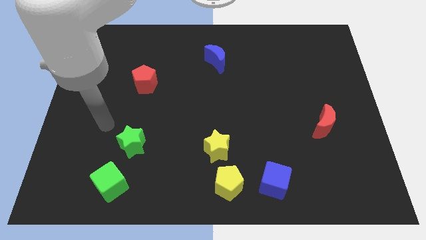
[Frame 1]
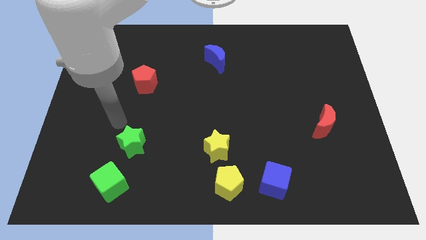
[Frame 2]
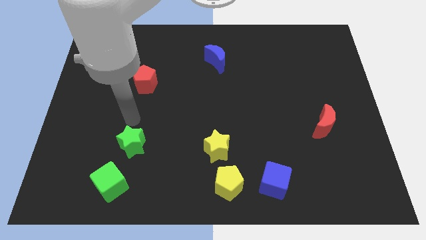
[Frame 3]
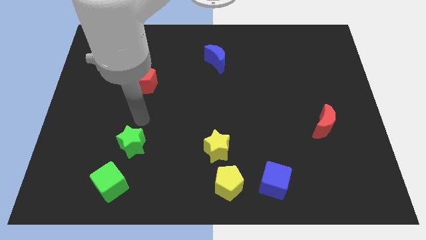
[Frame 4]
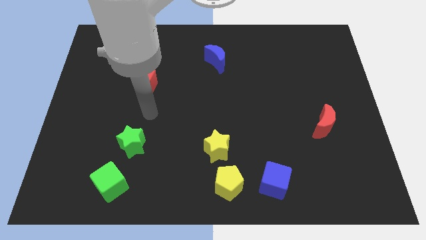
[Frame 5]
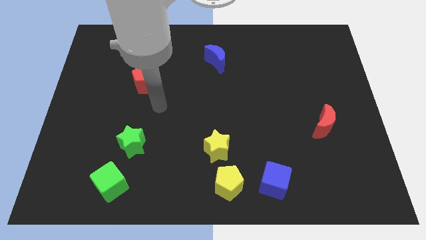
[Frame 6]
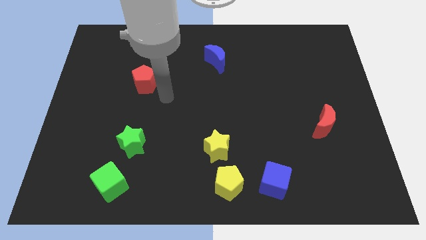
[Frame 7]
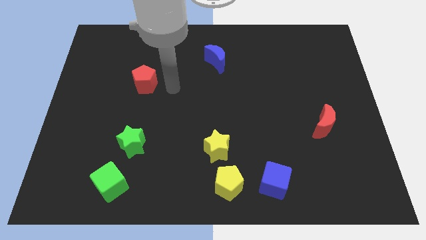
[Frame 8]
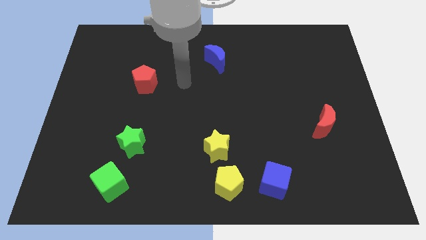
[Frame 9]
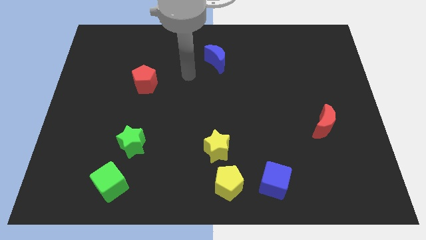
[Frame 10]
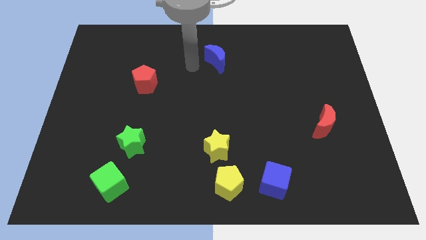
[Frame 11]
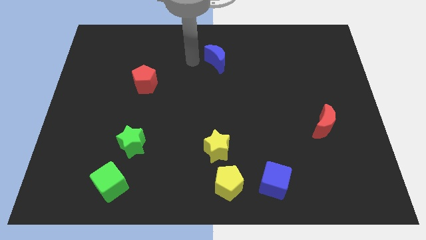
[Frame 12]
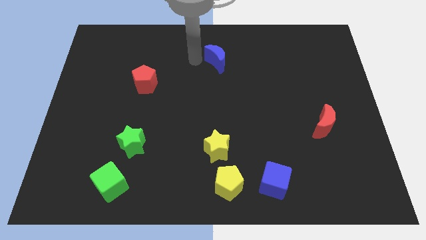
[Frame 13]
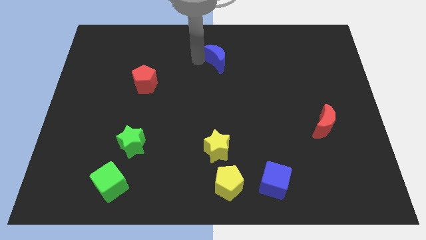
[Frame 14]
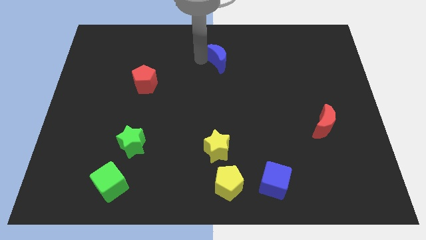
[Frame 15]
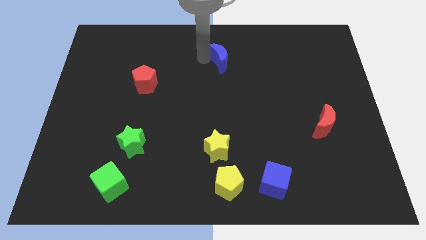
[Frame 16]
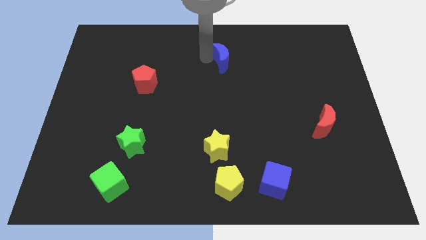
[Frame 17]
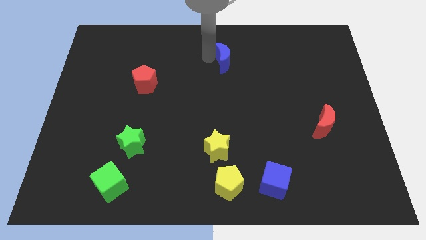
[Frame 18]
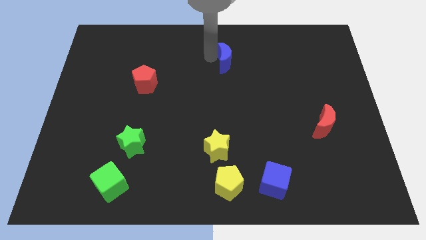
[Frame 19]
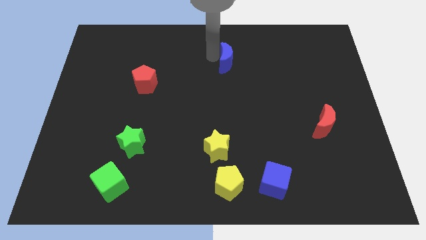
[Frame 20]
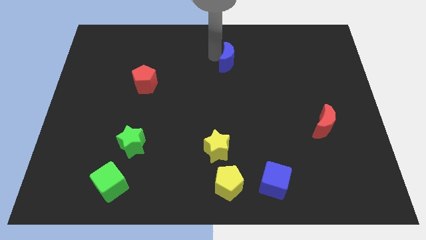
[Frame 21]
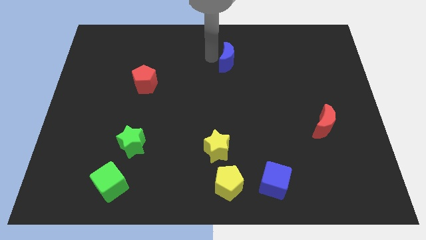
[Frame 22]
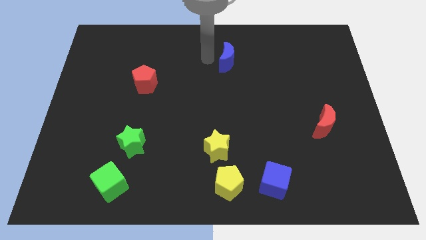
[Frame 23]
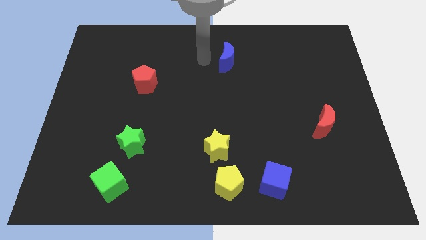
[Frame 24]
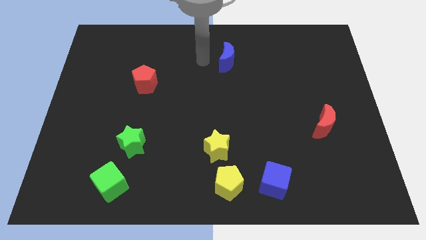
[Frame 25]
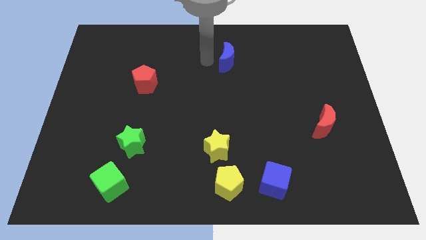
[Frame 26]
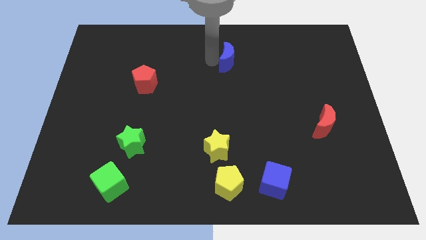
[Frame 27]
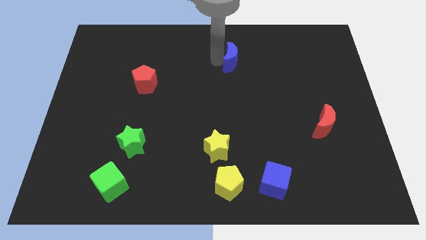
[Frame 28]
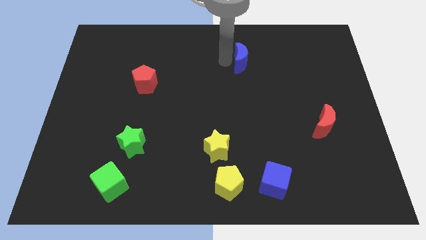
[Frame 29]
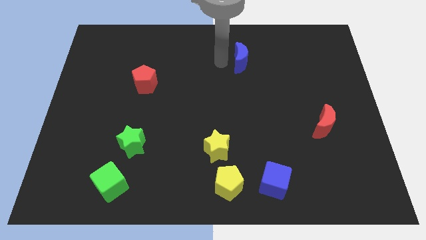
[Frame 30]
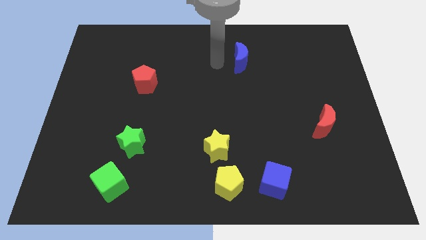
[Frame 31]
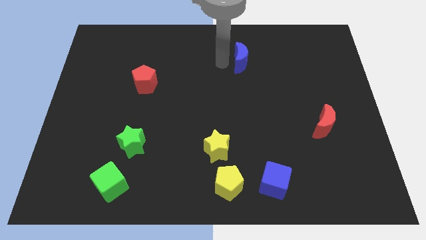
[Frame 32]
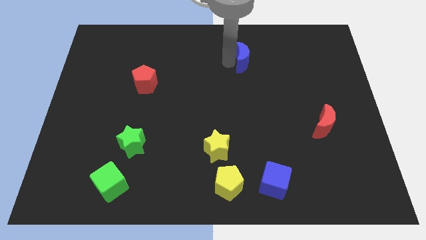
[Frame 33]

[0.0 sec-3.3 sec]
push the blue moon right somewhat

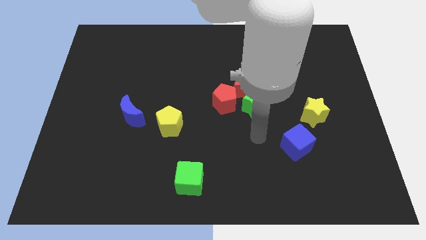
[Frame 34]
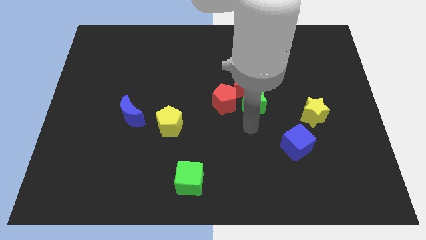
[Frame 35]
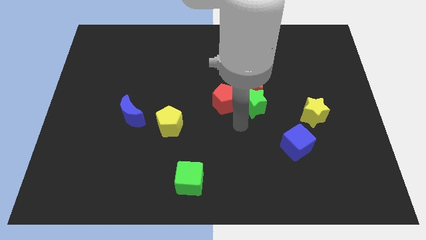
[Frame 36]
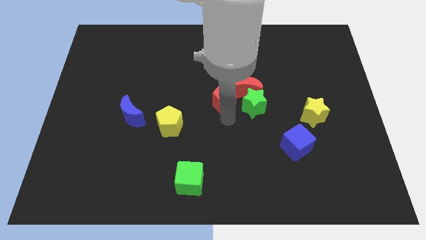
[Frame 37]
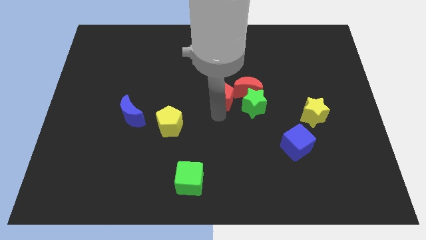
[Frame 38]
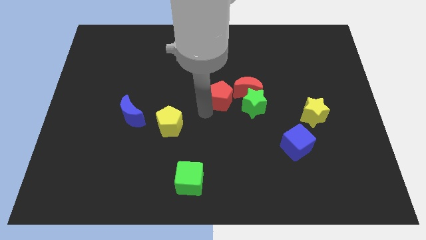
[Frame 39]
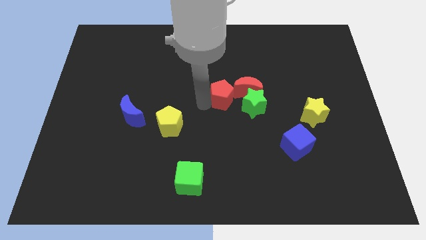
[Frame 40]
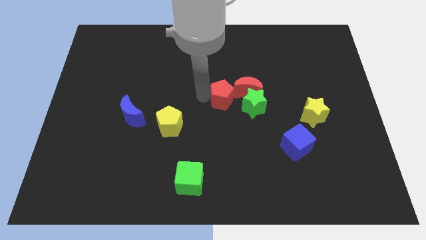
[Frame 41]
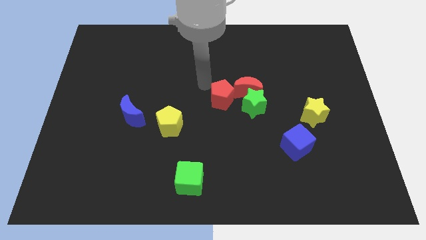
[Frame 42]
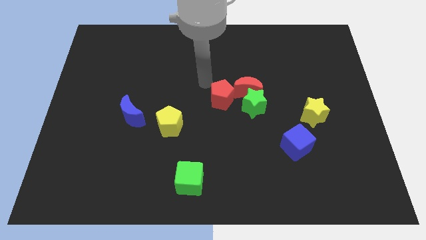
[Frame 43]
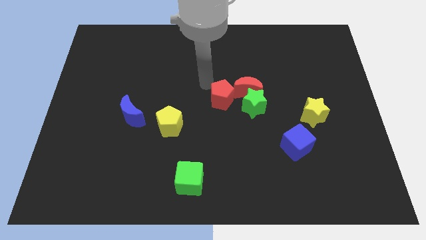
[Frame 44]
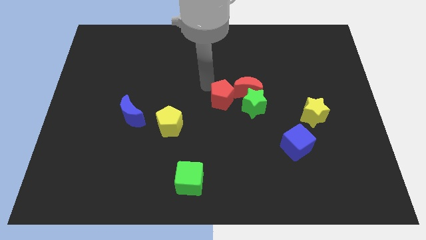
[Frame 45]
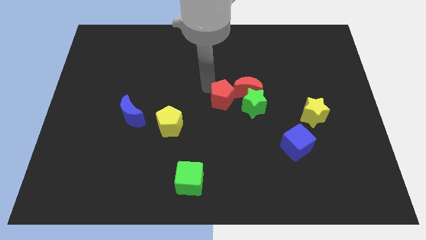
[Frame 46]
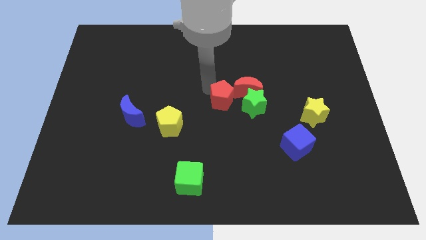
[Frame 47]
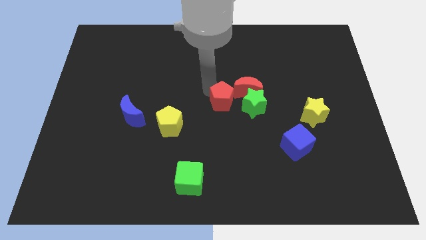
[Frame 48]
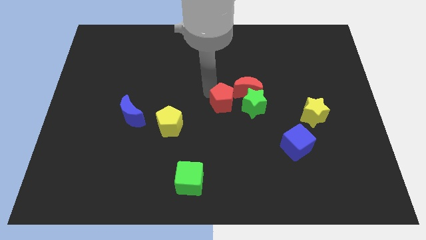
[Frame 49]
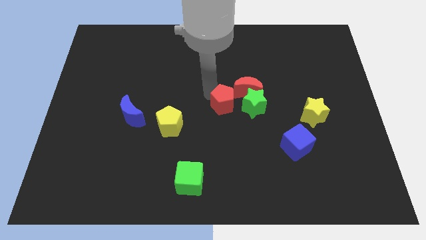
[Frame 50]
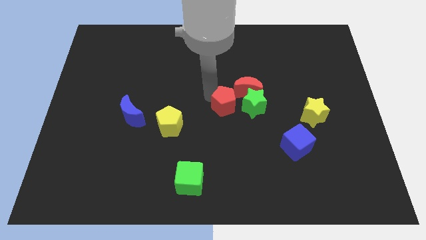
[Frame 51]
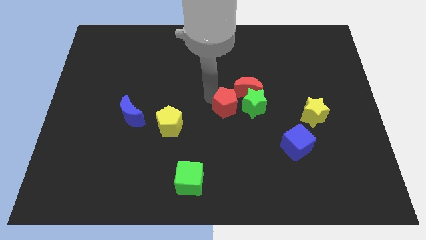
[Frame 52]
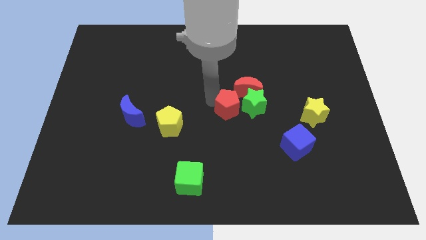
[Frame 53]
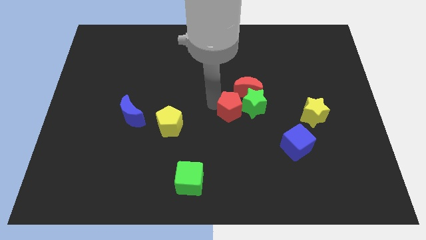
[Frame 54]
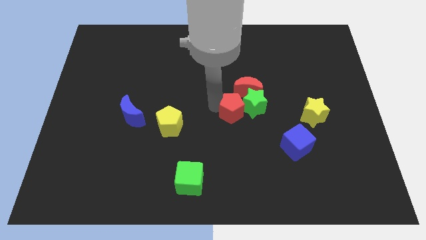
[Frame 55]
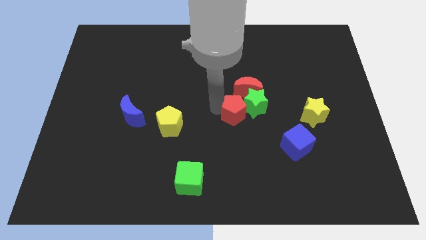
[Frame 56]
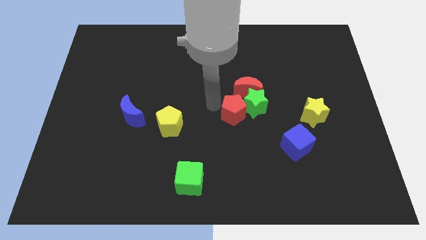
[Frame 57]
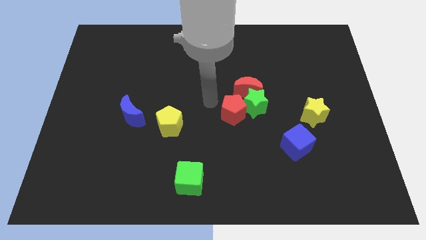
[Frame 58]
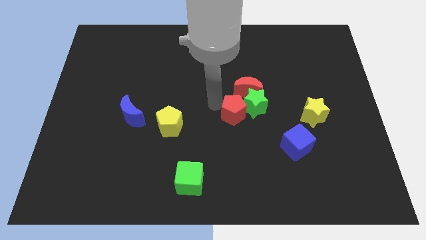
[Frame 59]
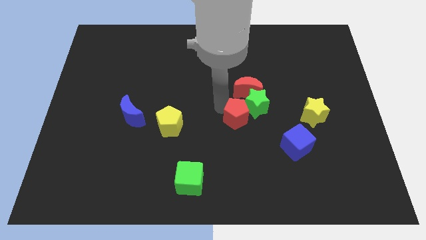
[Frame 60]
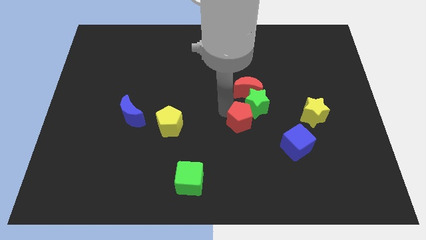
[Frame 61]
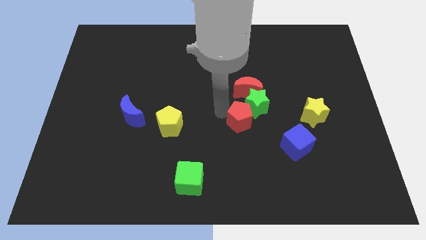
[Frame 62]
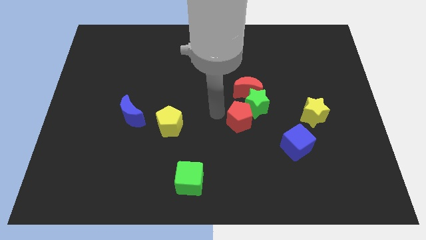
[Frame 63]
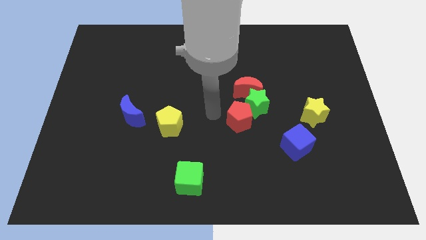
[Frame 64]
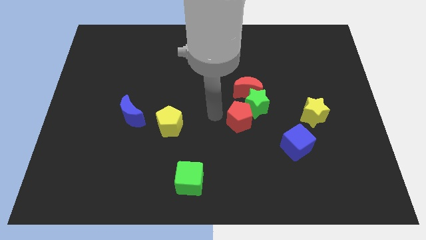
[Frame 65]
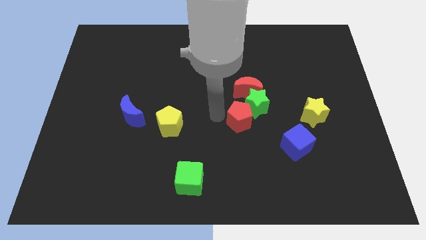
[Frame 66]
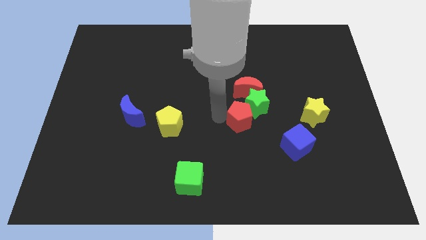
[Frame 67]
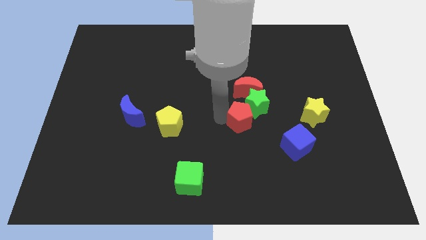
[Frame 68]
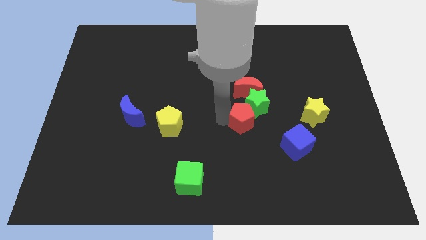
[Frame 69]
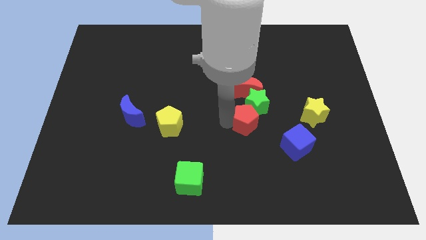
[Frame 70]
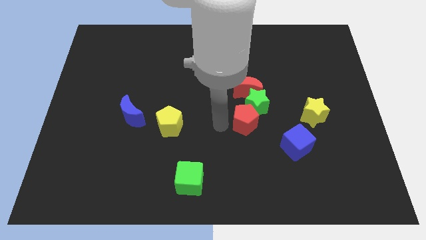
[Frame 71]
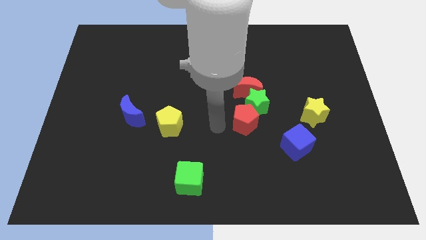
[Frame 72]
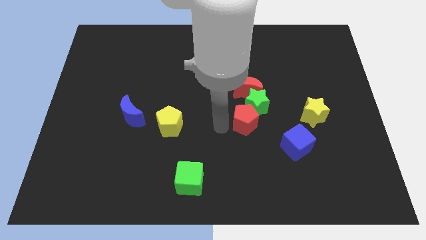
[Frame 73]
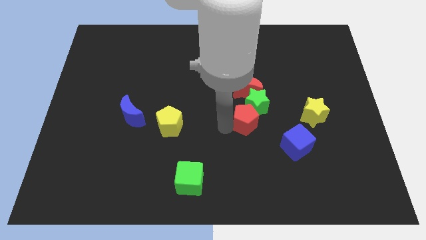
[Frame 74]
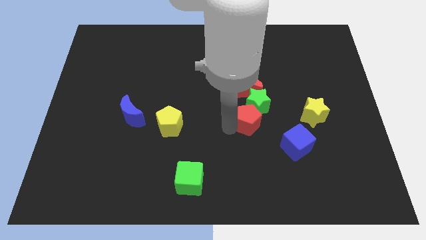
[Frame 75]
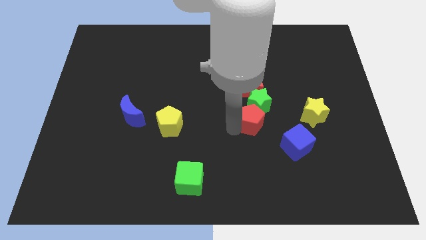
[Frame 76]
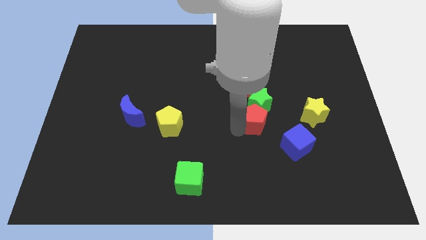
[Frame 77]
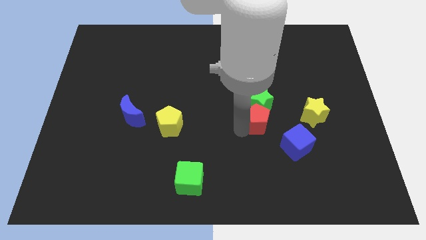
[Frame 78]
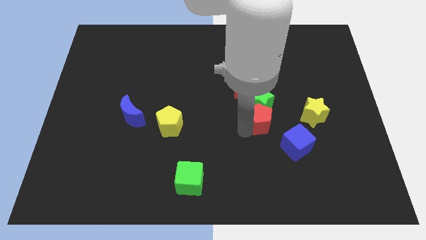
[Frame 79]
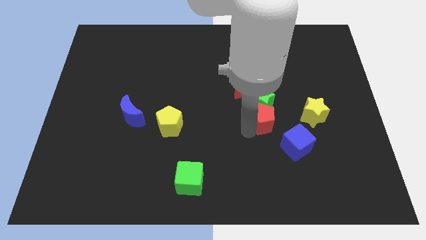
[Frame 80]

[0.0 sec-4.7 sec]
slide the red pentagon a little right

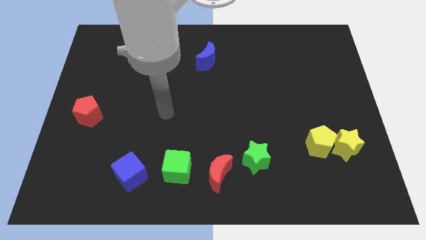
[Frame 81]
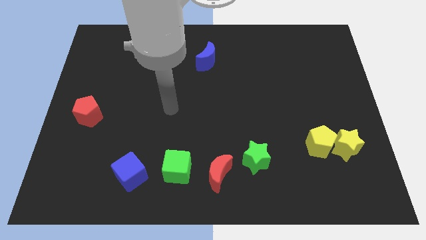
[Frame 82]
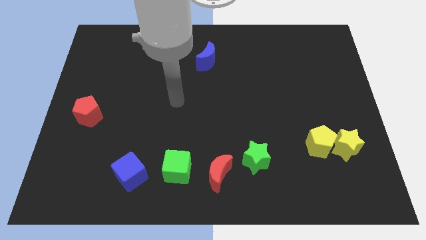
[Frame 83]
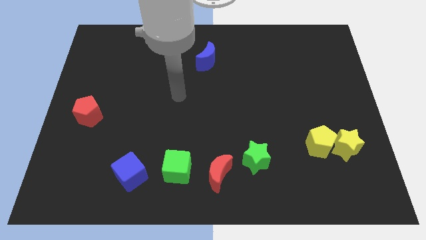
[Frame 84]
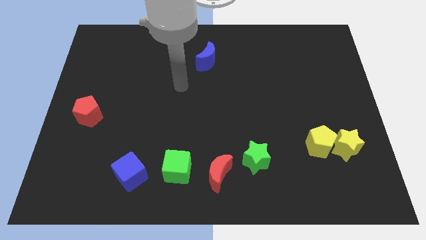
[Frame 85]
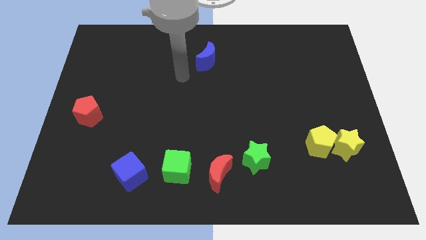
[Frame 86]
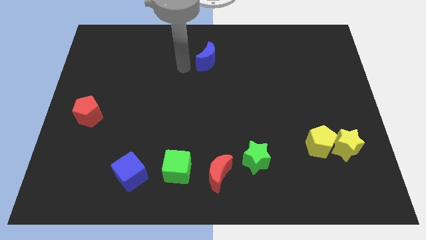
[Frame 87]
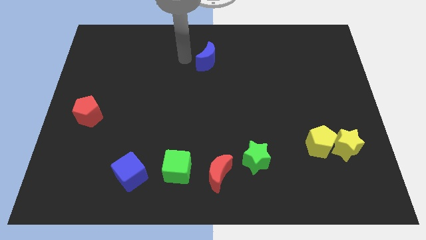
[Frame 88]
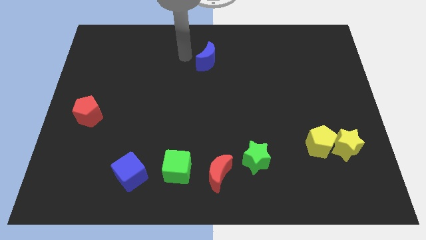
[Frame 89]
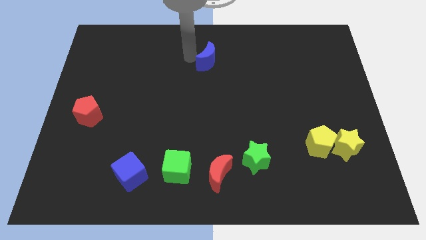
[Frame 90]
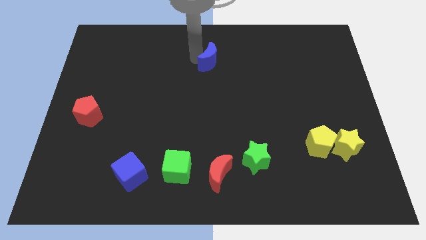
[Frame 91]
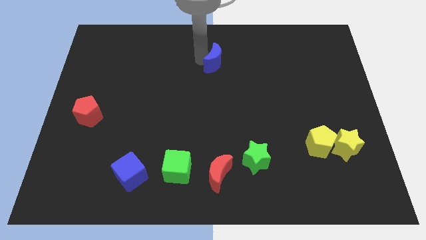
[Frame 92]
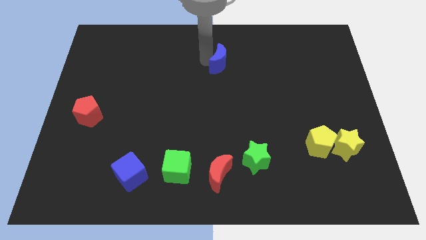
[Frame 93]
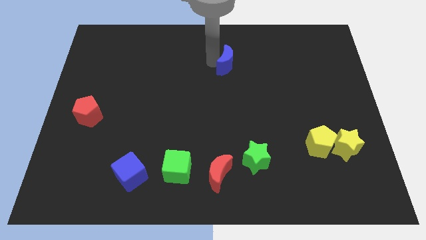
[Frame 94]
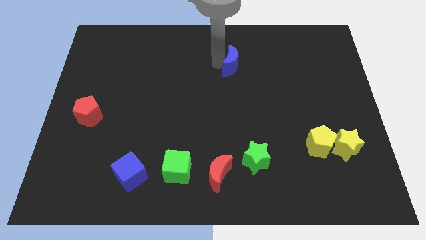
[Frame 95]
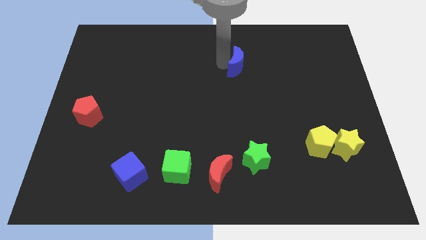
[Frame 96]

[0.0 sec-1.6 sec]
slide the blue moon a bit to the right
